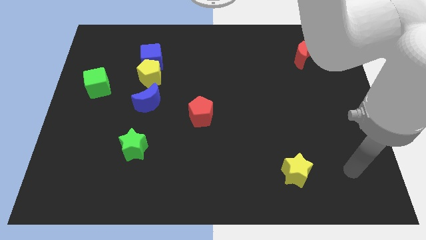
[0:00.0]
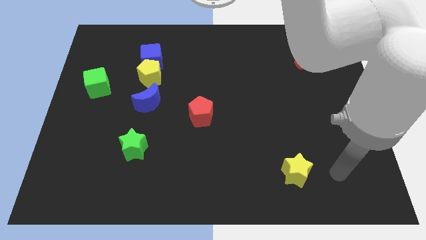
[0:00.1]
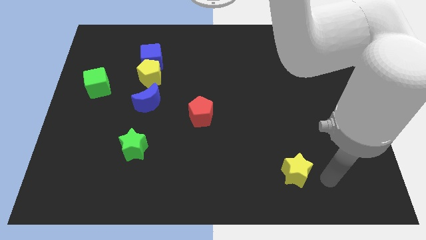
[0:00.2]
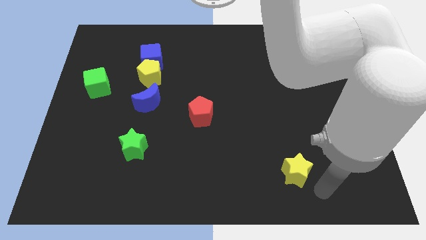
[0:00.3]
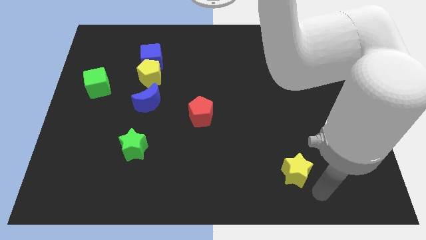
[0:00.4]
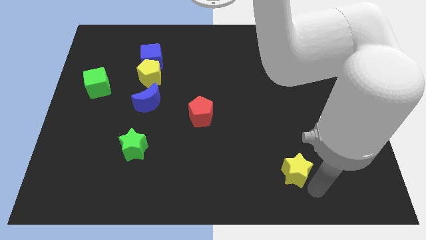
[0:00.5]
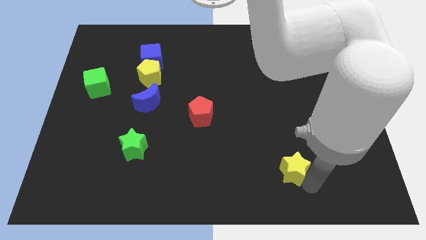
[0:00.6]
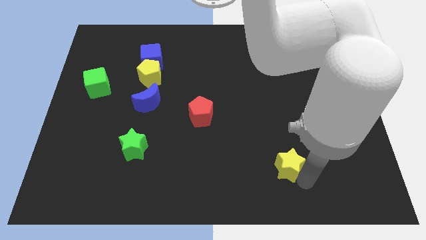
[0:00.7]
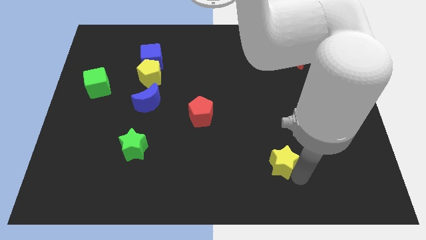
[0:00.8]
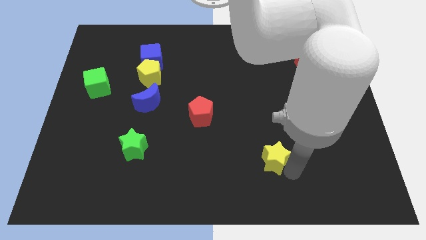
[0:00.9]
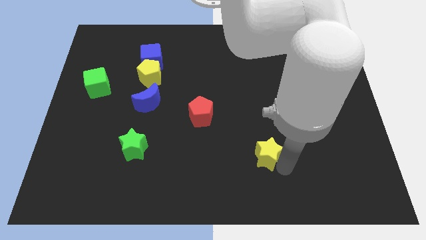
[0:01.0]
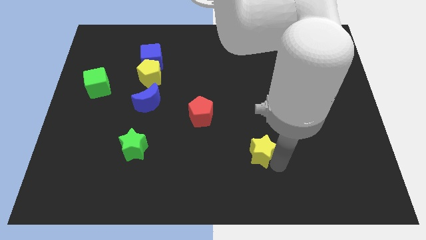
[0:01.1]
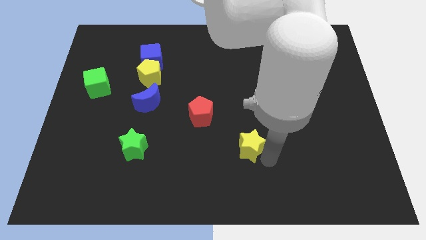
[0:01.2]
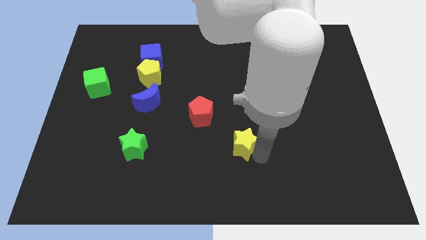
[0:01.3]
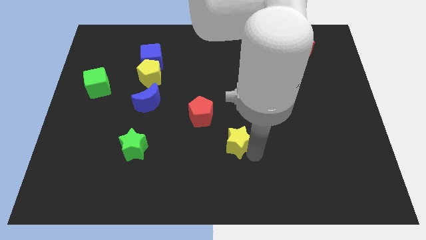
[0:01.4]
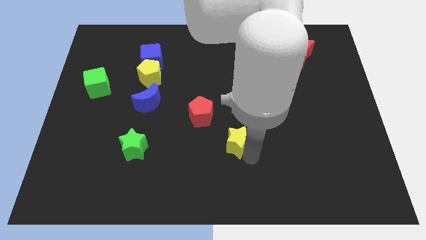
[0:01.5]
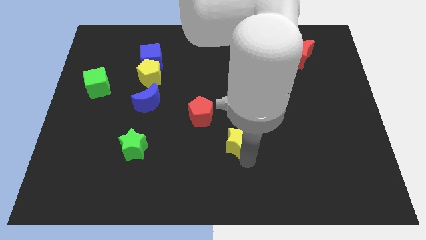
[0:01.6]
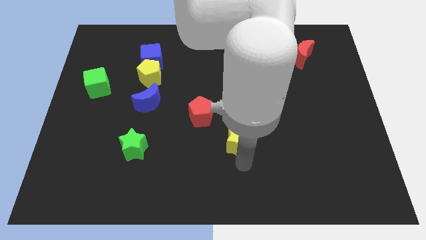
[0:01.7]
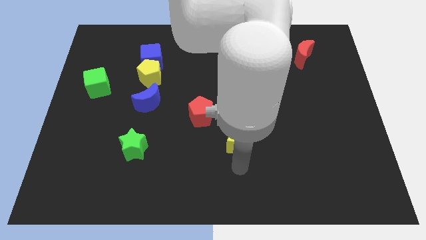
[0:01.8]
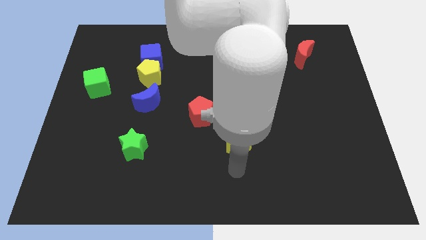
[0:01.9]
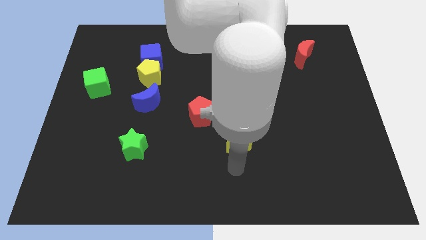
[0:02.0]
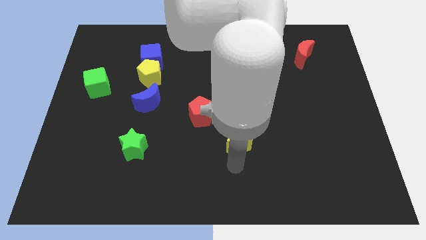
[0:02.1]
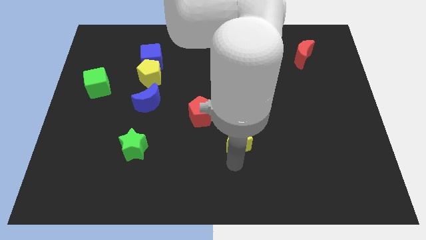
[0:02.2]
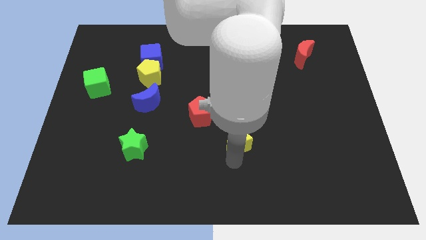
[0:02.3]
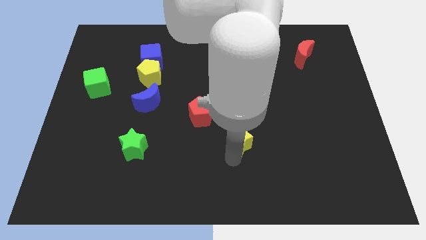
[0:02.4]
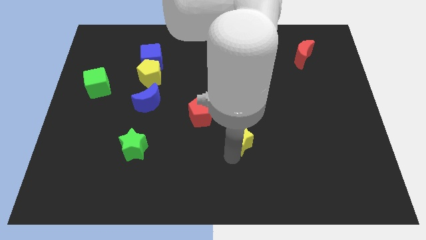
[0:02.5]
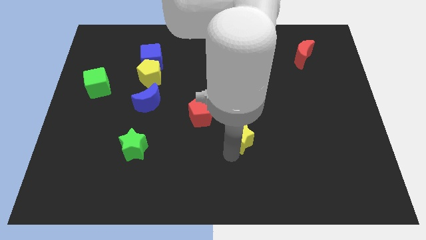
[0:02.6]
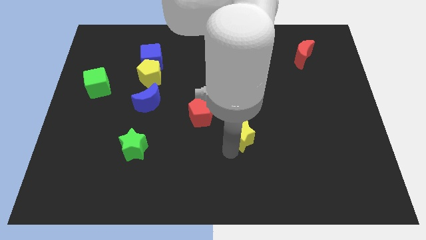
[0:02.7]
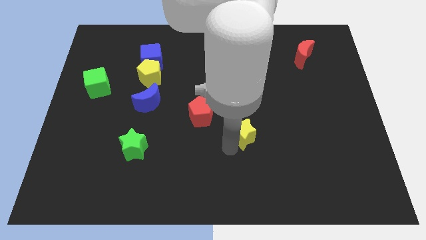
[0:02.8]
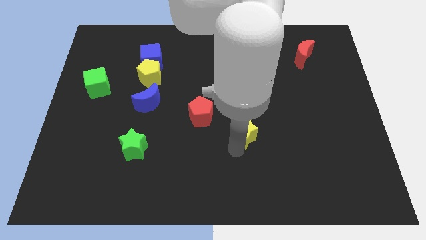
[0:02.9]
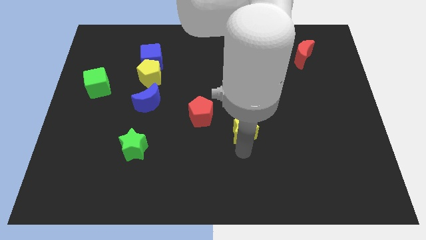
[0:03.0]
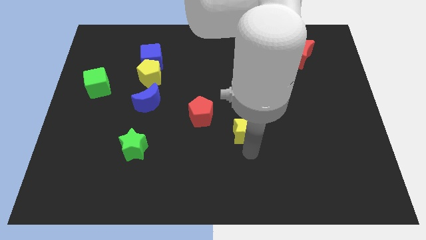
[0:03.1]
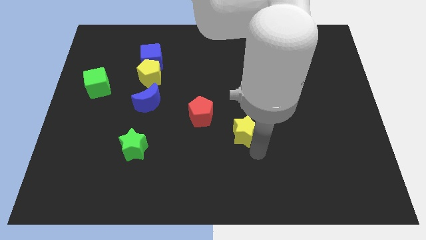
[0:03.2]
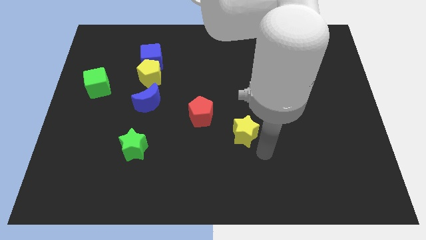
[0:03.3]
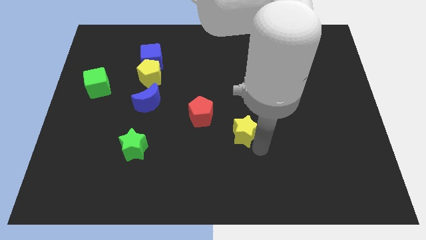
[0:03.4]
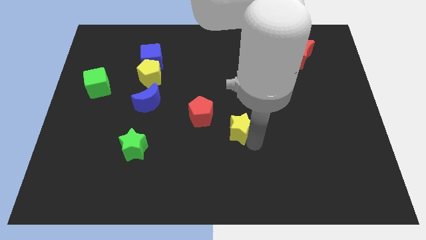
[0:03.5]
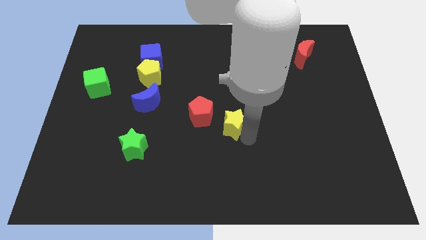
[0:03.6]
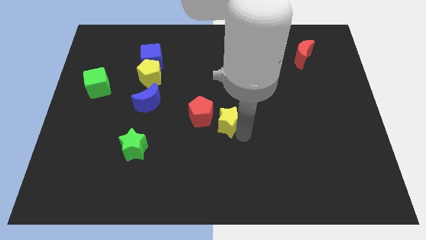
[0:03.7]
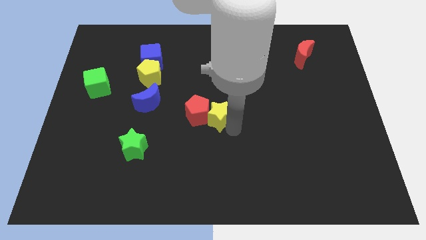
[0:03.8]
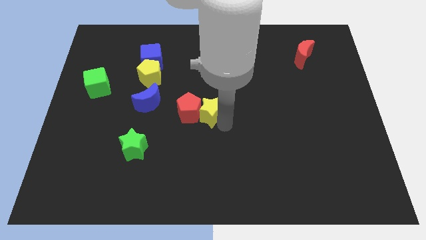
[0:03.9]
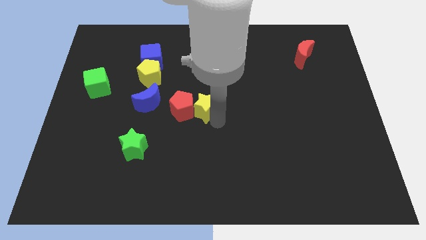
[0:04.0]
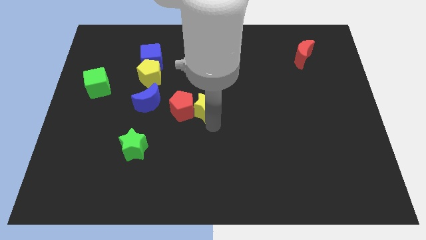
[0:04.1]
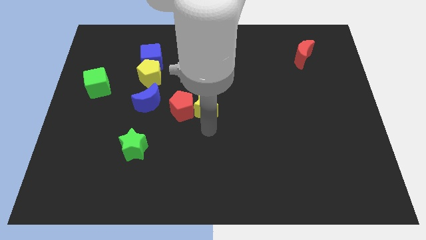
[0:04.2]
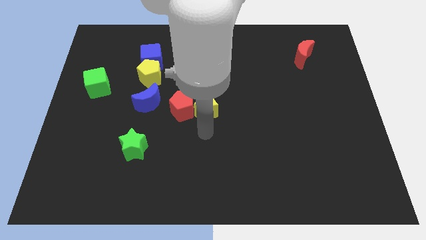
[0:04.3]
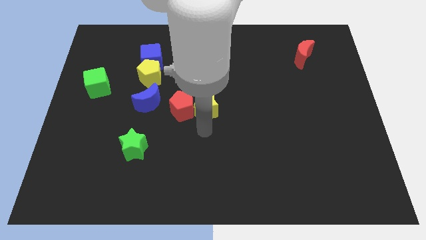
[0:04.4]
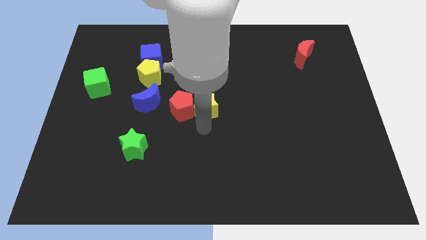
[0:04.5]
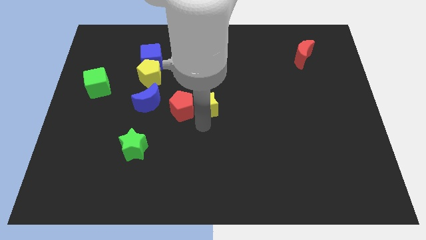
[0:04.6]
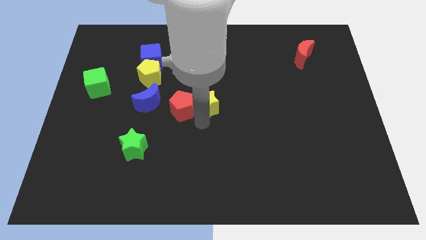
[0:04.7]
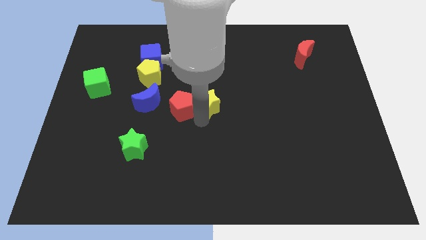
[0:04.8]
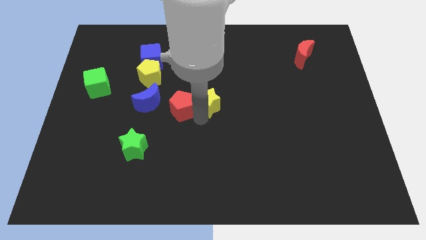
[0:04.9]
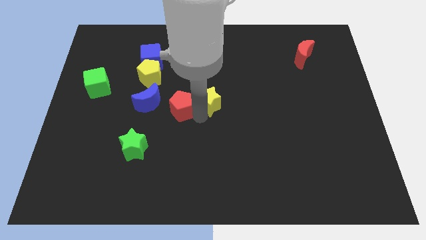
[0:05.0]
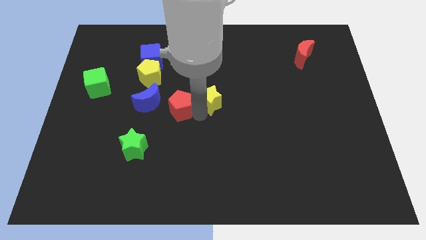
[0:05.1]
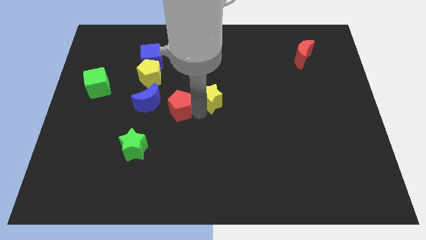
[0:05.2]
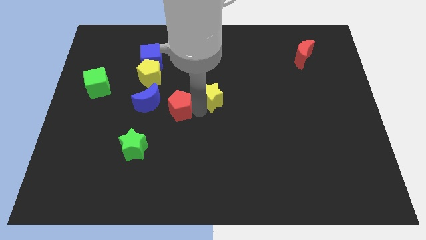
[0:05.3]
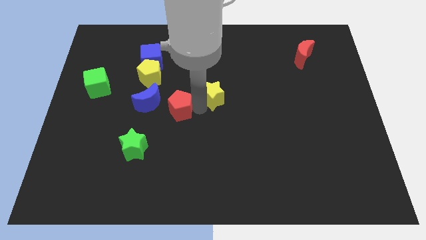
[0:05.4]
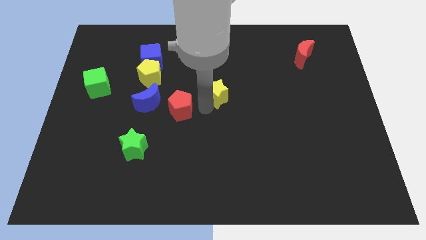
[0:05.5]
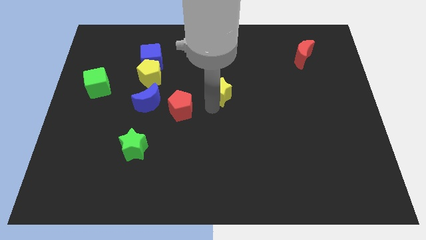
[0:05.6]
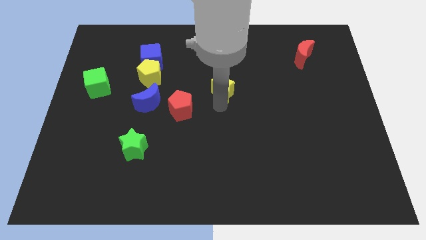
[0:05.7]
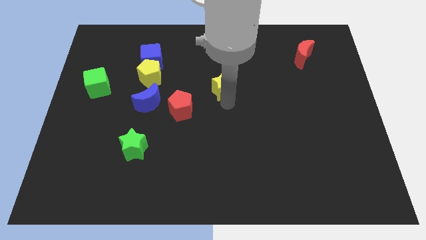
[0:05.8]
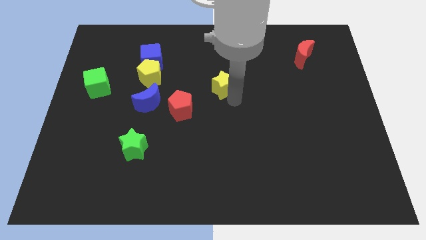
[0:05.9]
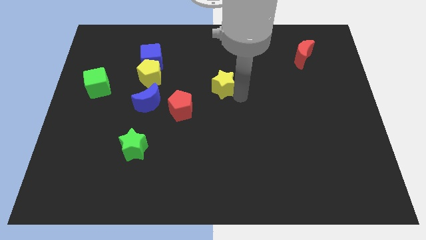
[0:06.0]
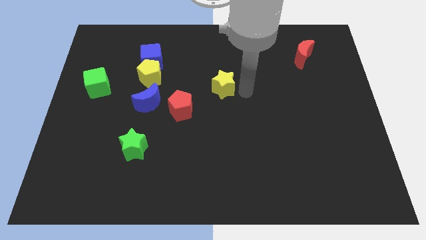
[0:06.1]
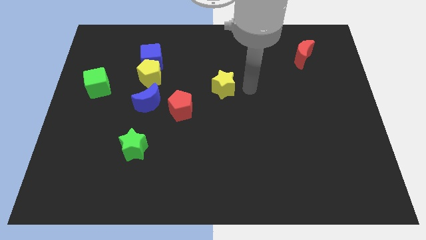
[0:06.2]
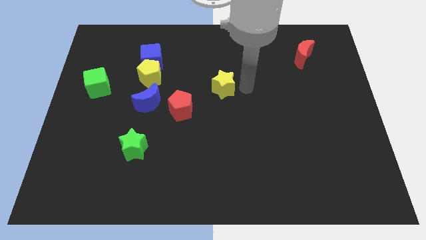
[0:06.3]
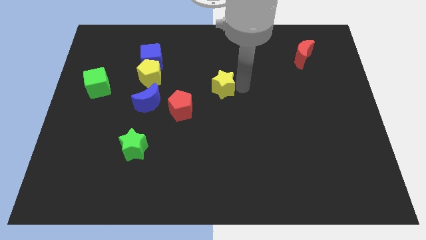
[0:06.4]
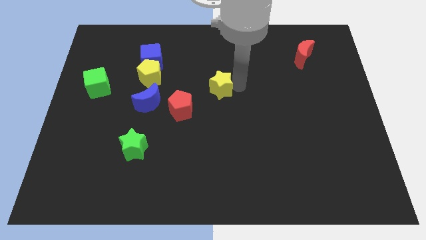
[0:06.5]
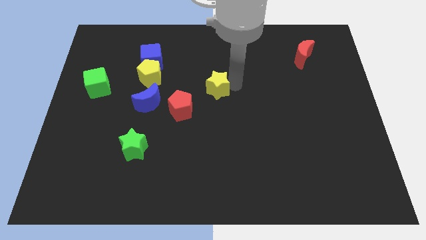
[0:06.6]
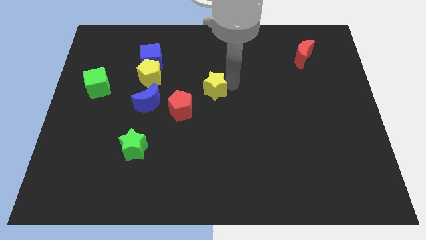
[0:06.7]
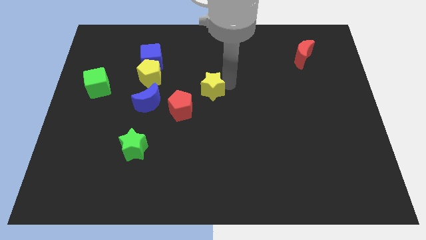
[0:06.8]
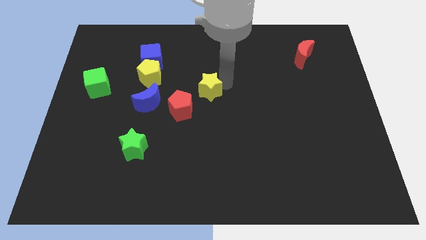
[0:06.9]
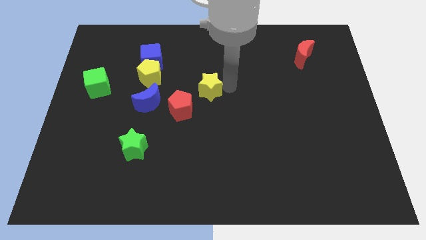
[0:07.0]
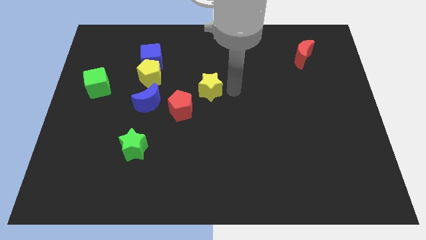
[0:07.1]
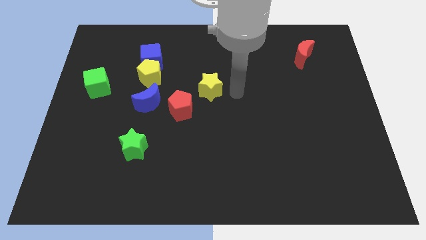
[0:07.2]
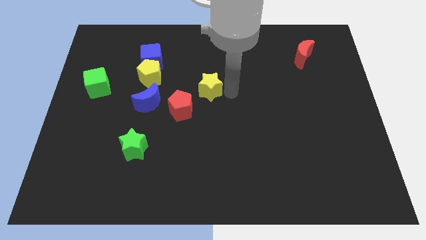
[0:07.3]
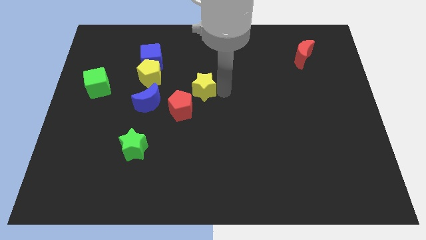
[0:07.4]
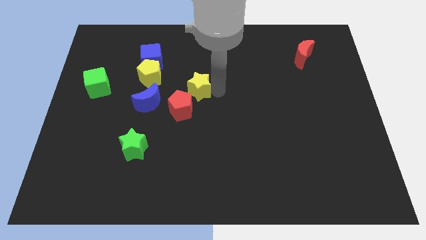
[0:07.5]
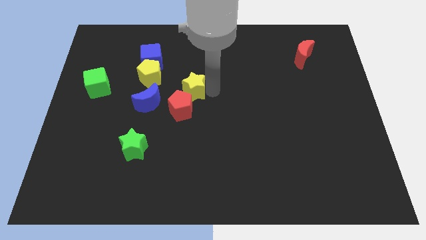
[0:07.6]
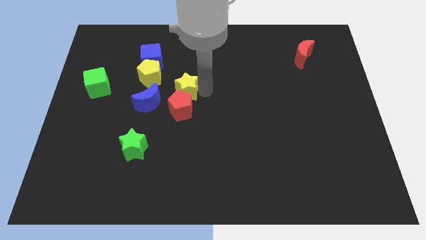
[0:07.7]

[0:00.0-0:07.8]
slide the yellow star to the top right of the blue moon
